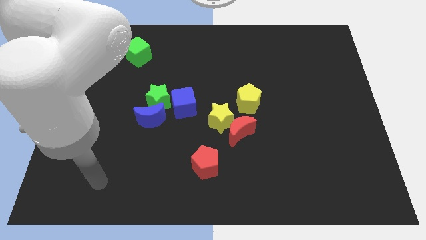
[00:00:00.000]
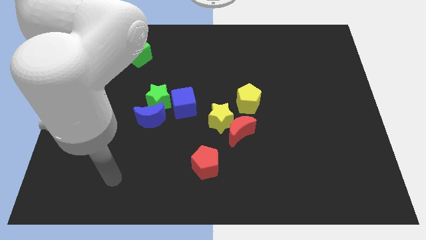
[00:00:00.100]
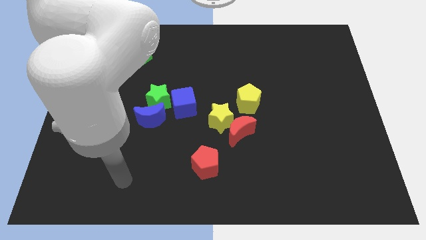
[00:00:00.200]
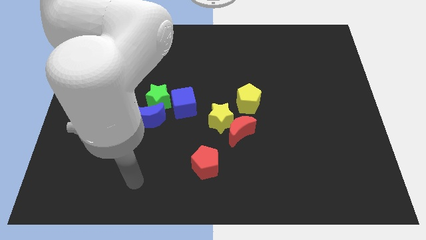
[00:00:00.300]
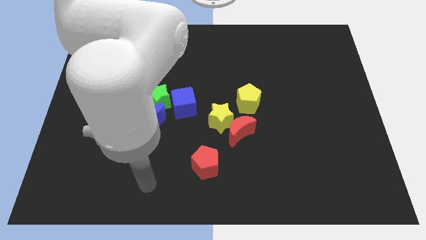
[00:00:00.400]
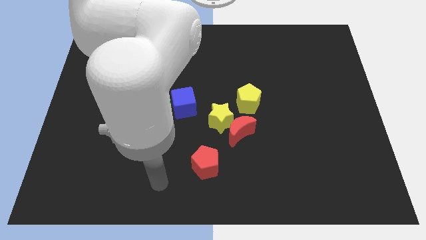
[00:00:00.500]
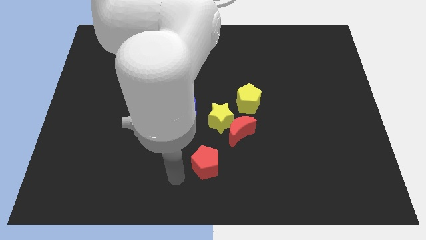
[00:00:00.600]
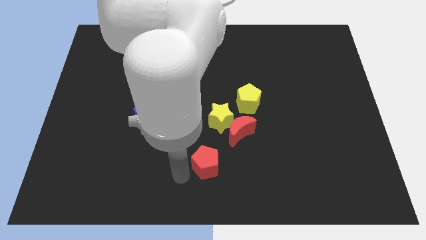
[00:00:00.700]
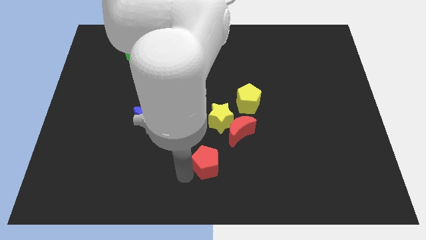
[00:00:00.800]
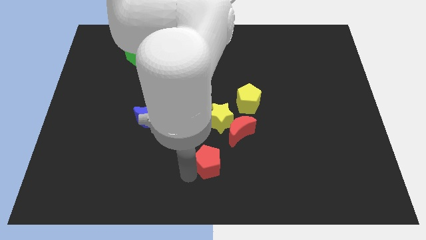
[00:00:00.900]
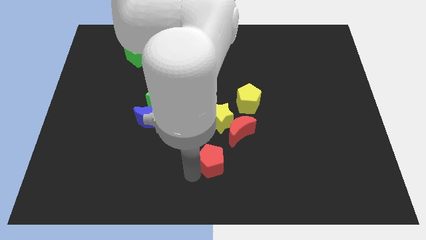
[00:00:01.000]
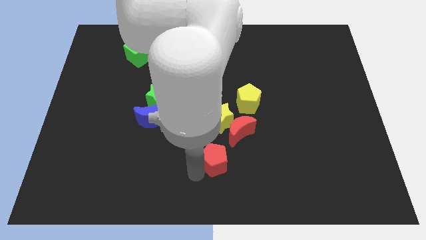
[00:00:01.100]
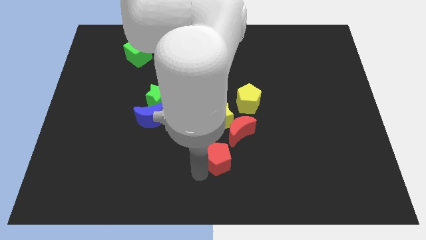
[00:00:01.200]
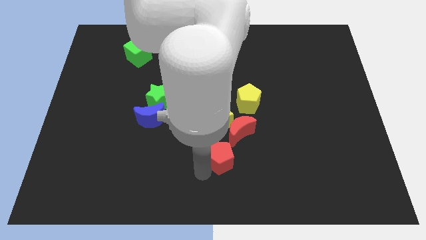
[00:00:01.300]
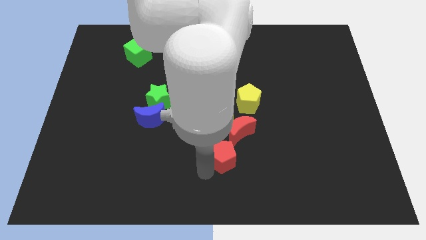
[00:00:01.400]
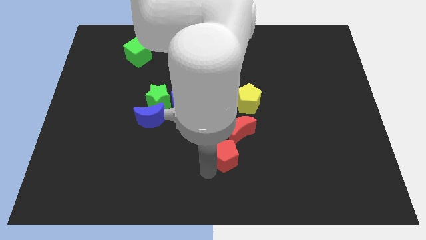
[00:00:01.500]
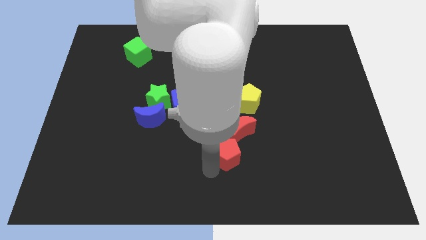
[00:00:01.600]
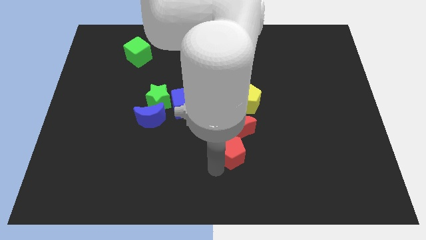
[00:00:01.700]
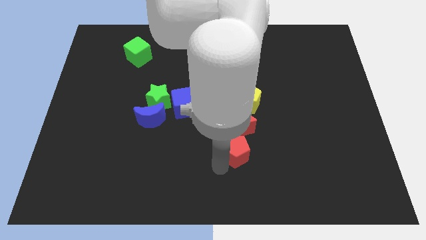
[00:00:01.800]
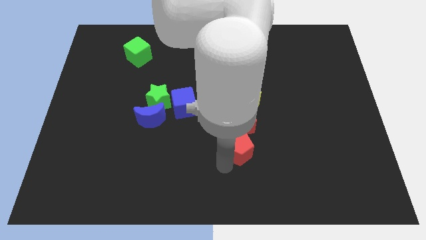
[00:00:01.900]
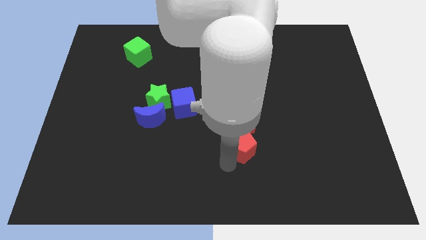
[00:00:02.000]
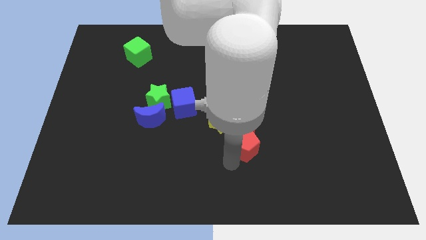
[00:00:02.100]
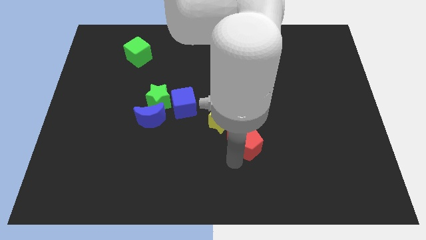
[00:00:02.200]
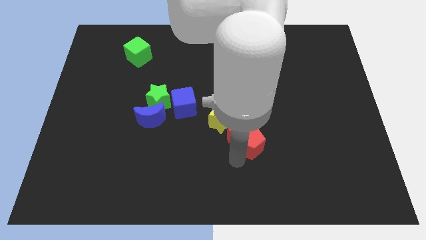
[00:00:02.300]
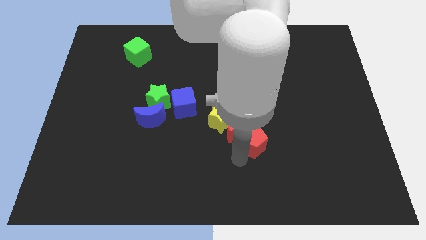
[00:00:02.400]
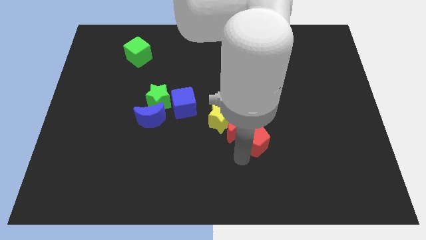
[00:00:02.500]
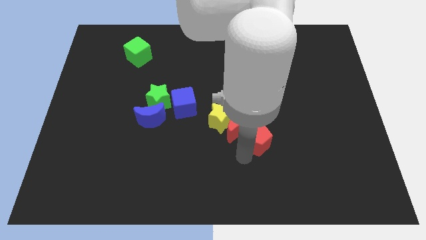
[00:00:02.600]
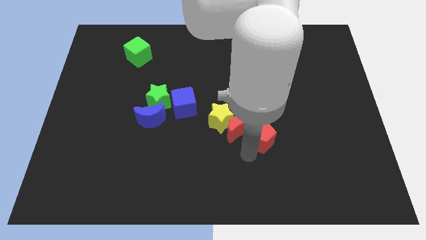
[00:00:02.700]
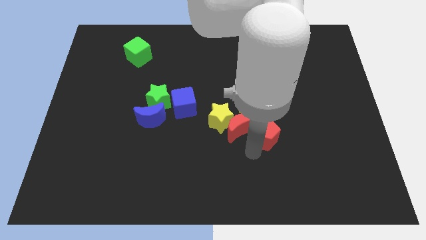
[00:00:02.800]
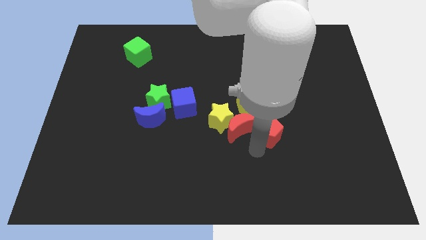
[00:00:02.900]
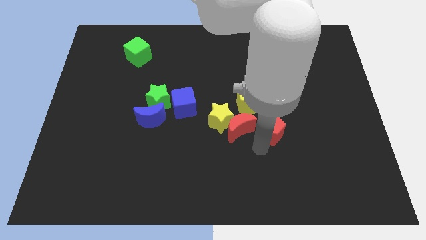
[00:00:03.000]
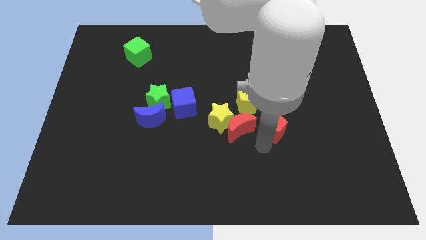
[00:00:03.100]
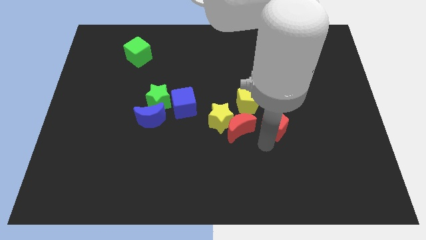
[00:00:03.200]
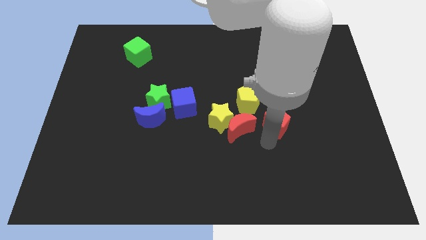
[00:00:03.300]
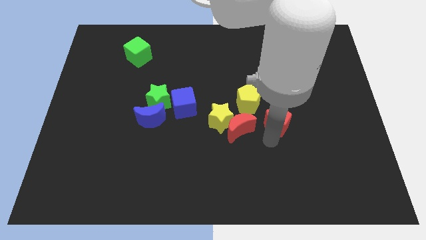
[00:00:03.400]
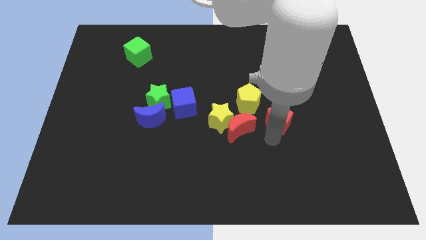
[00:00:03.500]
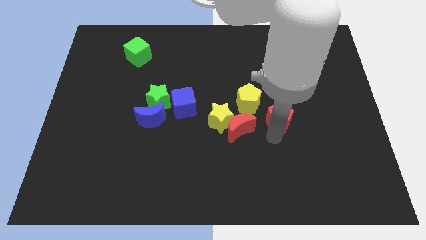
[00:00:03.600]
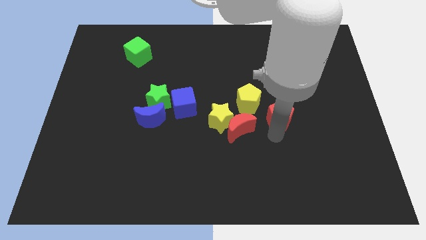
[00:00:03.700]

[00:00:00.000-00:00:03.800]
move the red pentagon upwards and to the right

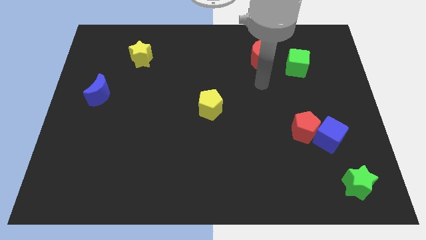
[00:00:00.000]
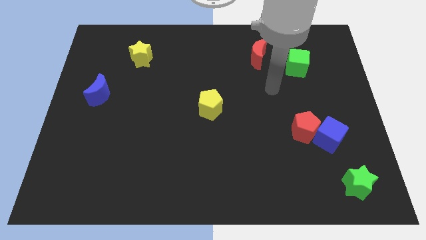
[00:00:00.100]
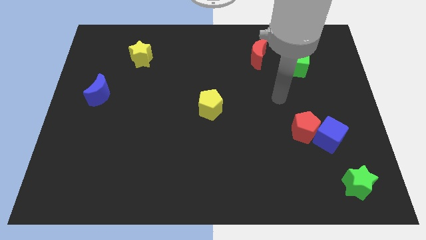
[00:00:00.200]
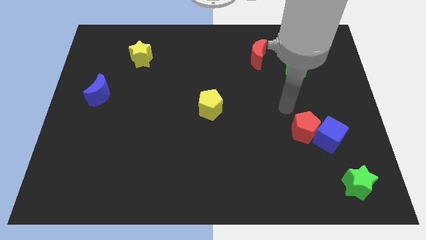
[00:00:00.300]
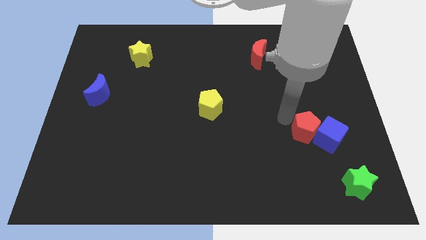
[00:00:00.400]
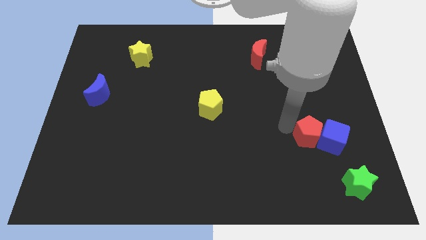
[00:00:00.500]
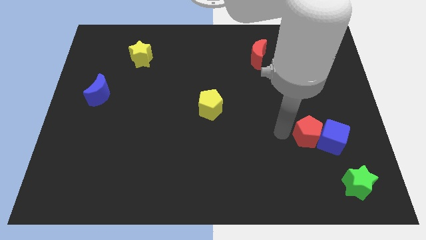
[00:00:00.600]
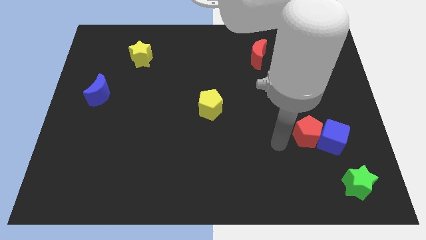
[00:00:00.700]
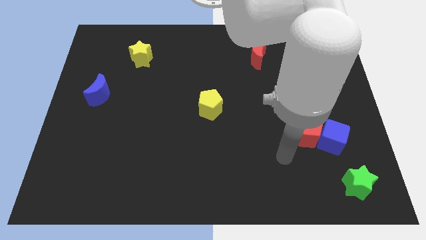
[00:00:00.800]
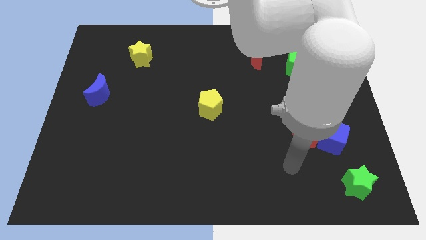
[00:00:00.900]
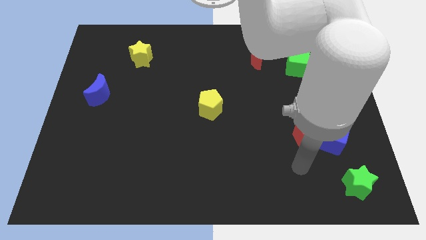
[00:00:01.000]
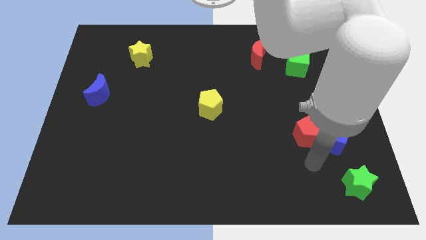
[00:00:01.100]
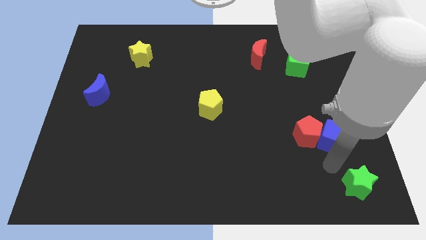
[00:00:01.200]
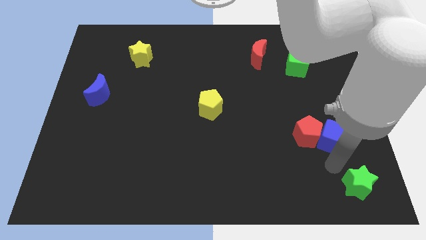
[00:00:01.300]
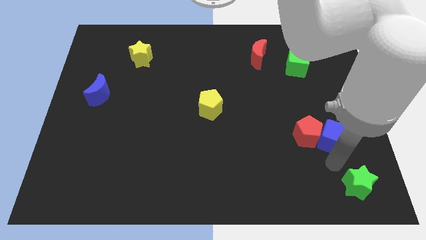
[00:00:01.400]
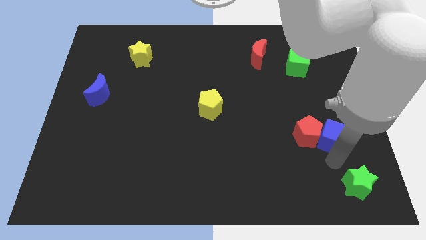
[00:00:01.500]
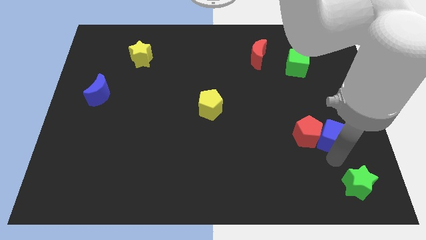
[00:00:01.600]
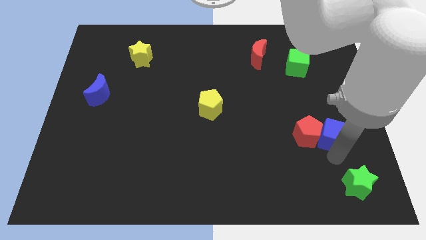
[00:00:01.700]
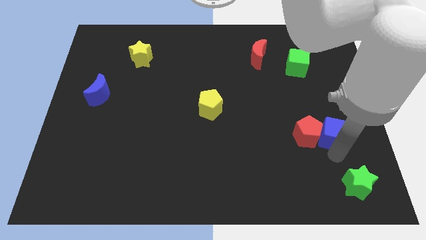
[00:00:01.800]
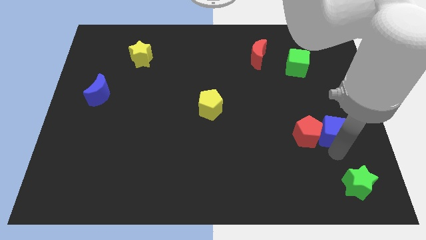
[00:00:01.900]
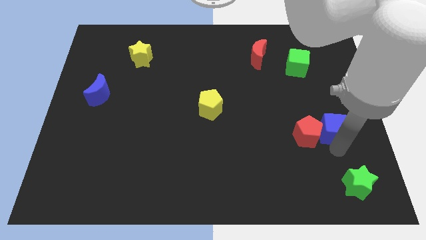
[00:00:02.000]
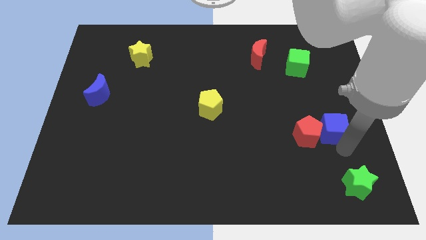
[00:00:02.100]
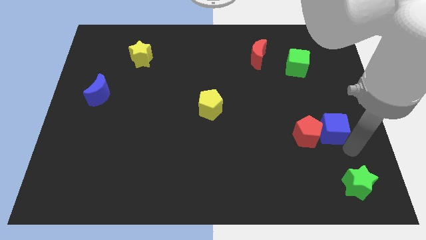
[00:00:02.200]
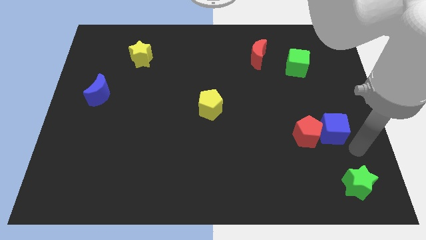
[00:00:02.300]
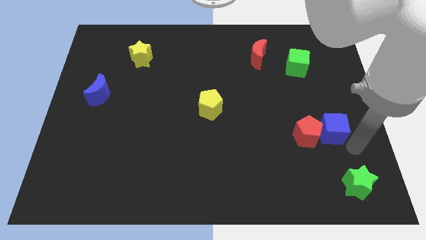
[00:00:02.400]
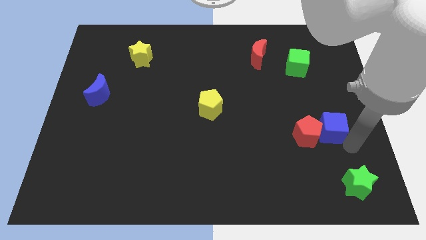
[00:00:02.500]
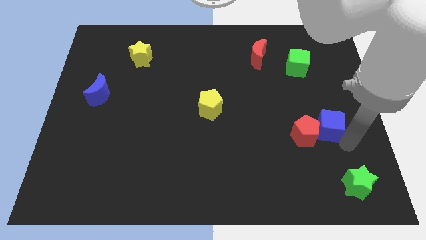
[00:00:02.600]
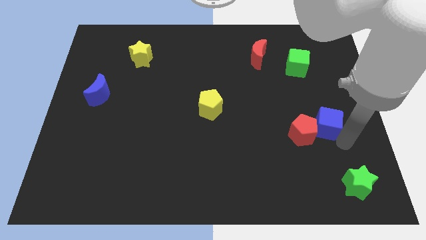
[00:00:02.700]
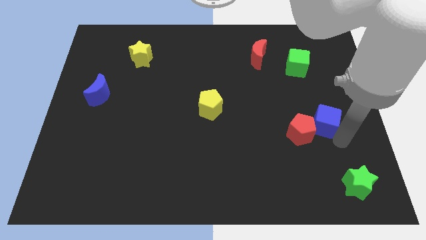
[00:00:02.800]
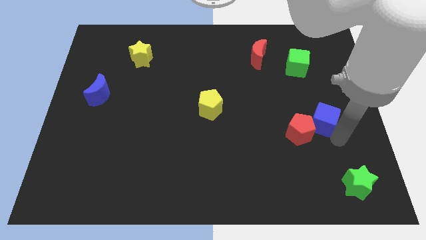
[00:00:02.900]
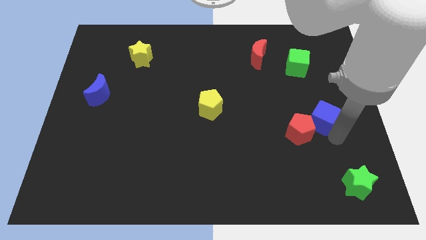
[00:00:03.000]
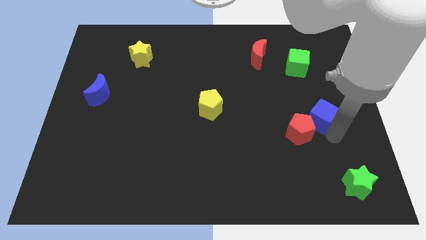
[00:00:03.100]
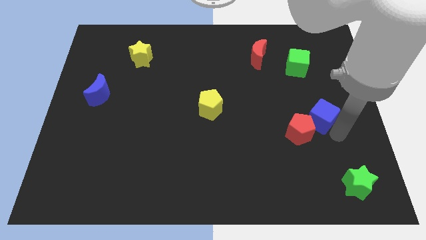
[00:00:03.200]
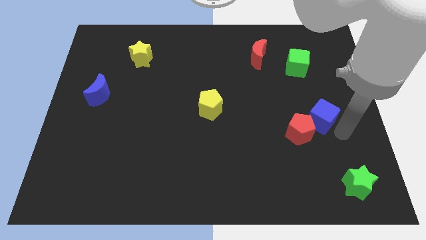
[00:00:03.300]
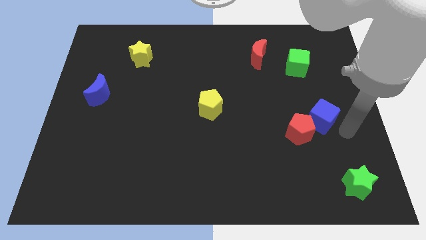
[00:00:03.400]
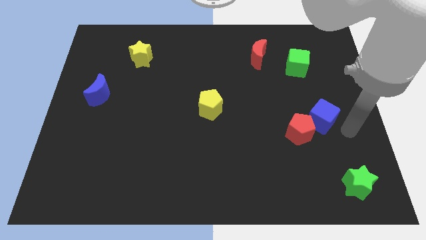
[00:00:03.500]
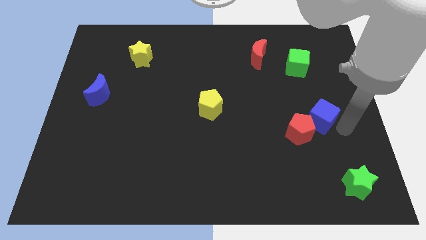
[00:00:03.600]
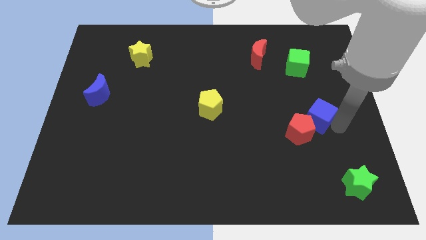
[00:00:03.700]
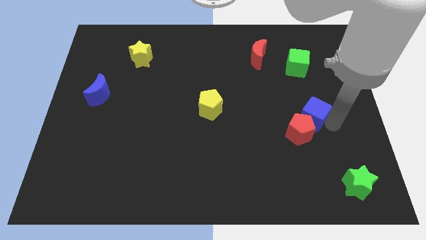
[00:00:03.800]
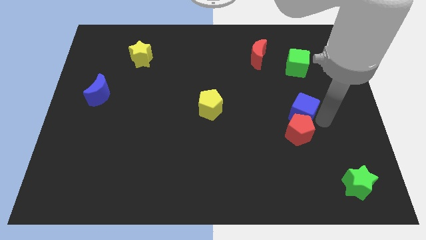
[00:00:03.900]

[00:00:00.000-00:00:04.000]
push the blue cube slightly diagonally upwards and left

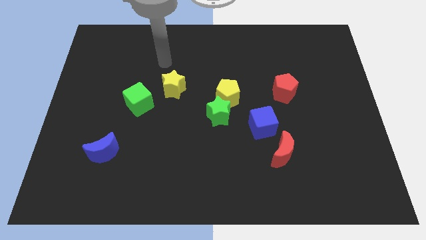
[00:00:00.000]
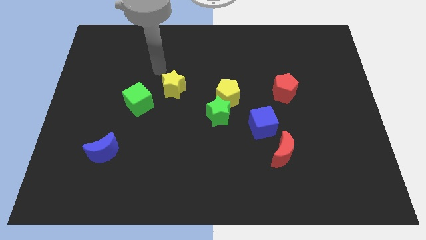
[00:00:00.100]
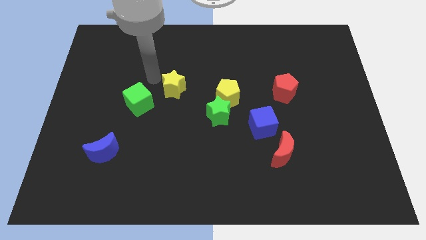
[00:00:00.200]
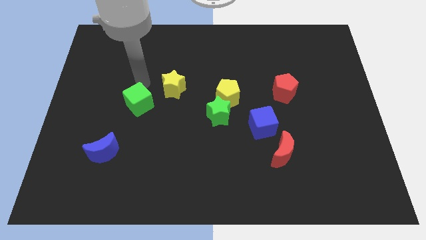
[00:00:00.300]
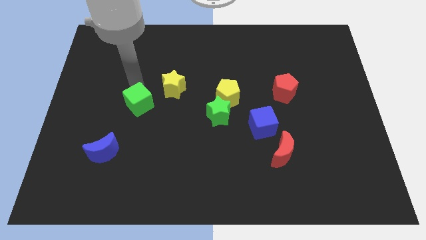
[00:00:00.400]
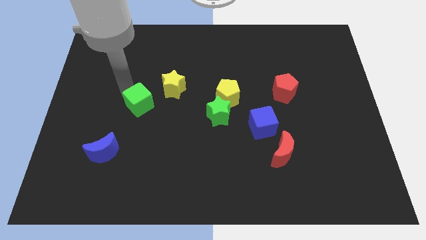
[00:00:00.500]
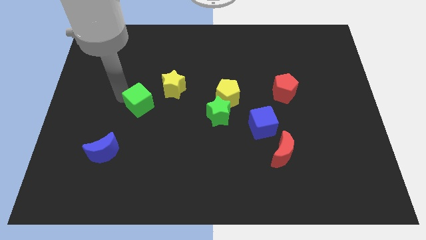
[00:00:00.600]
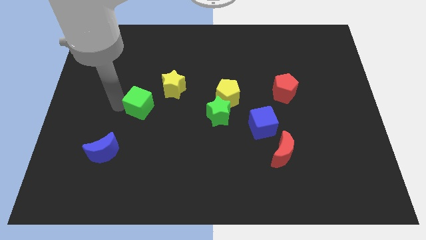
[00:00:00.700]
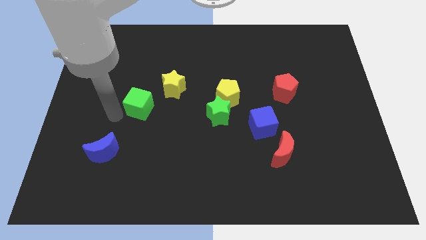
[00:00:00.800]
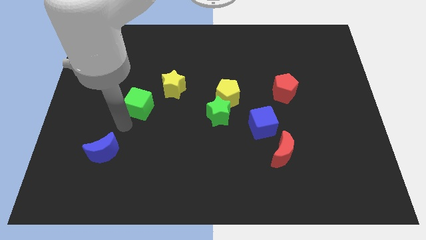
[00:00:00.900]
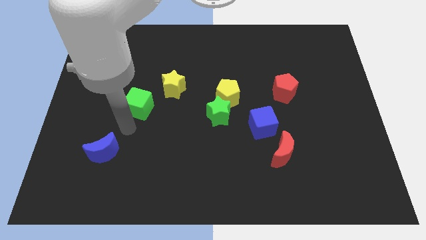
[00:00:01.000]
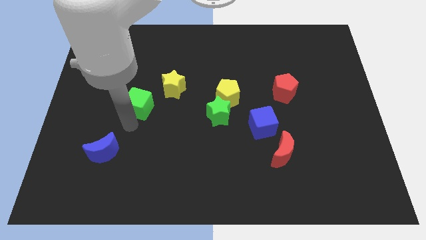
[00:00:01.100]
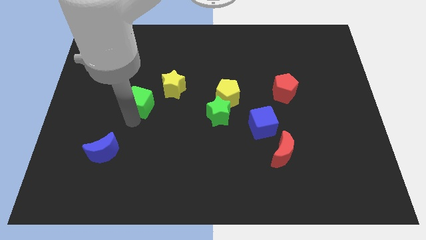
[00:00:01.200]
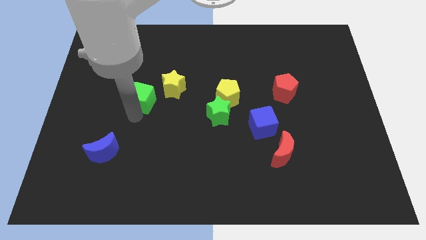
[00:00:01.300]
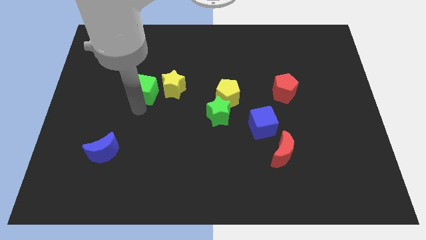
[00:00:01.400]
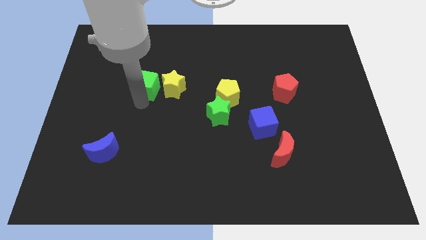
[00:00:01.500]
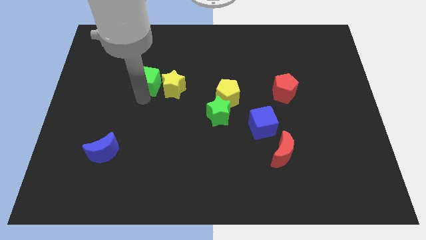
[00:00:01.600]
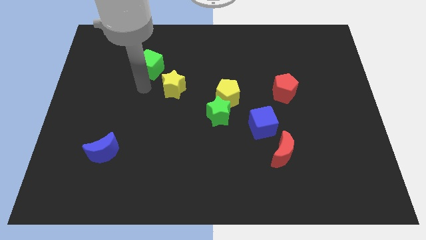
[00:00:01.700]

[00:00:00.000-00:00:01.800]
move the green cube slightly upwards and to the right
